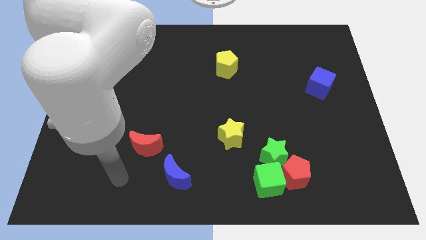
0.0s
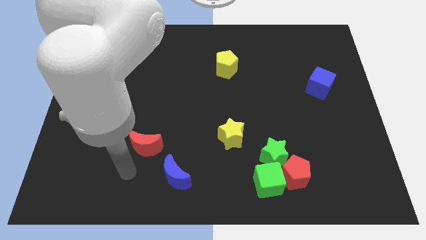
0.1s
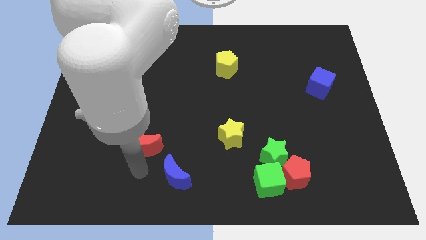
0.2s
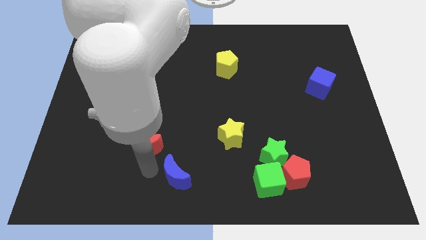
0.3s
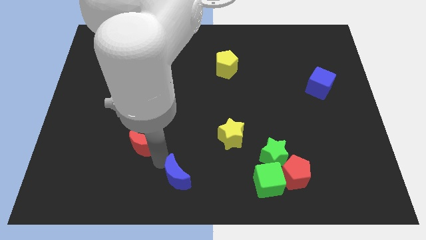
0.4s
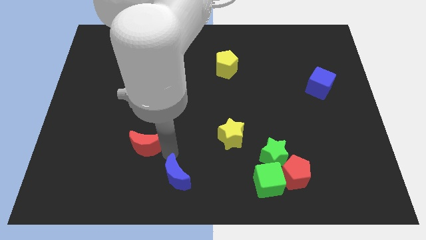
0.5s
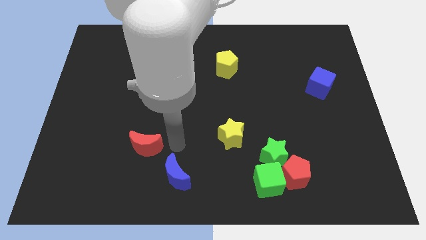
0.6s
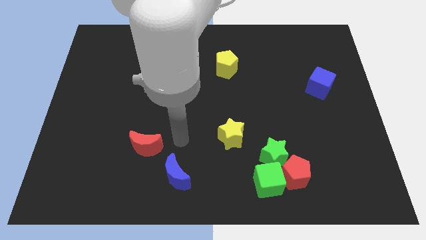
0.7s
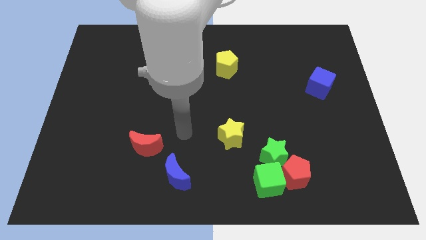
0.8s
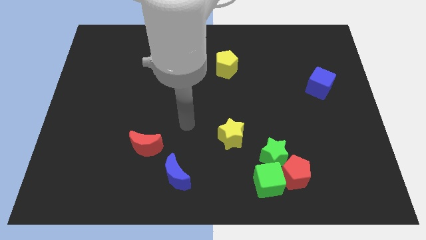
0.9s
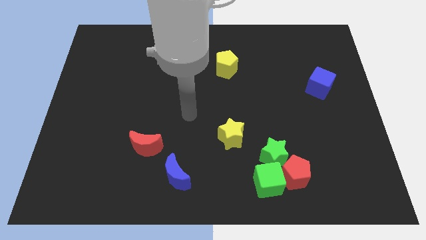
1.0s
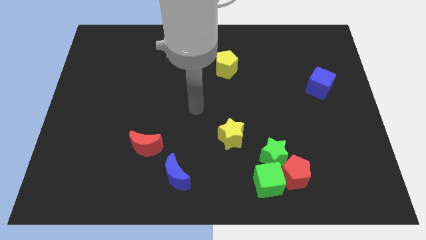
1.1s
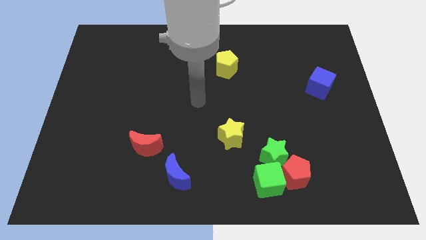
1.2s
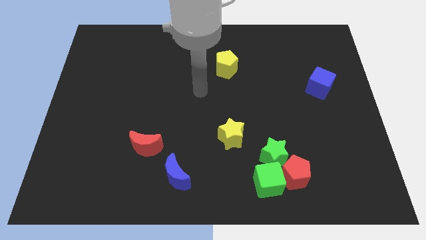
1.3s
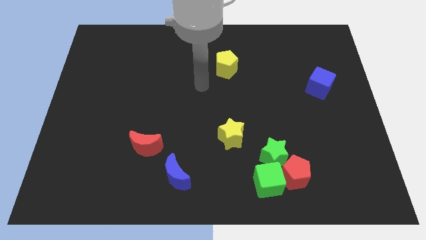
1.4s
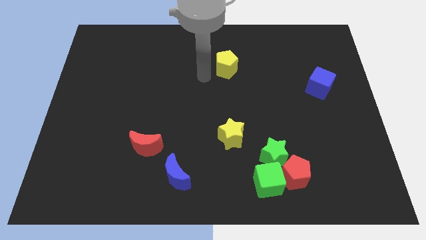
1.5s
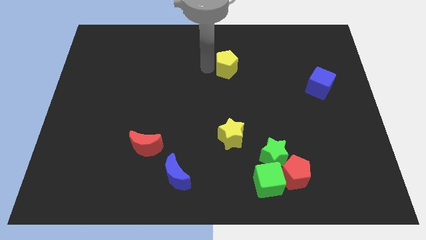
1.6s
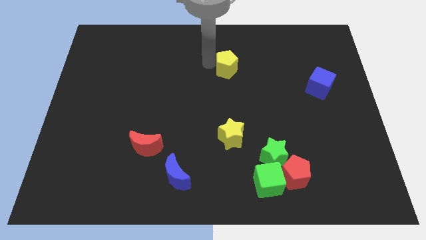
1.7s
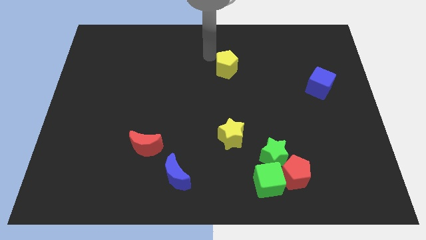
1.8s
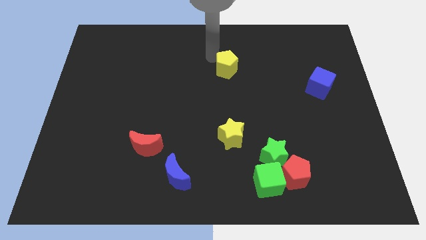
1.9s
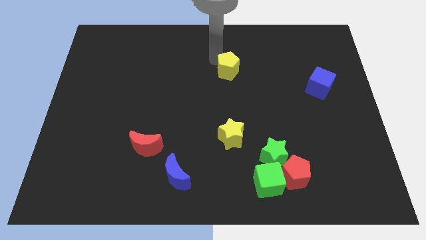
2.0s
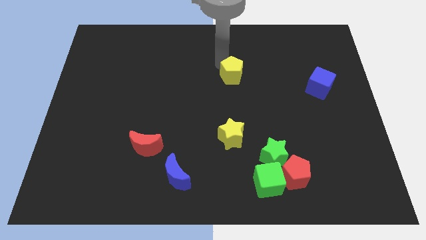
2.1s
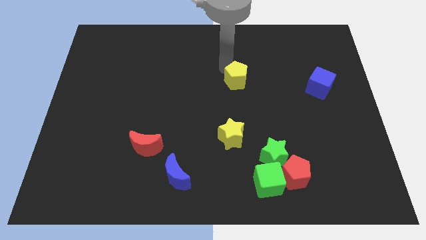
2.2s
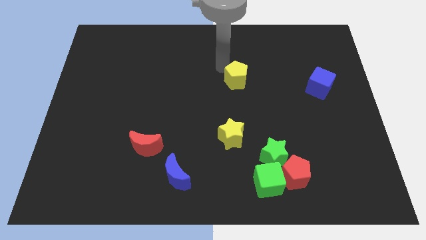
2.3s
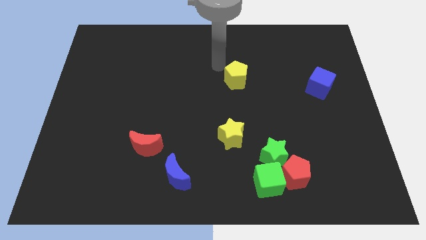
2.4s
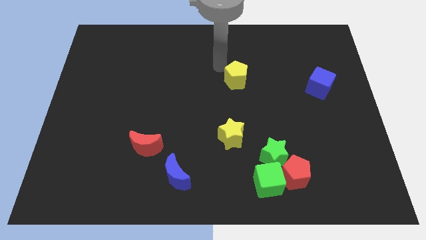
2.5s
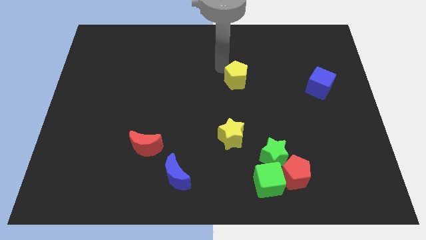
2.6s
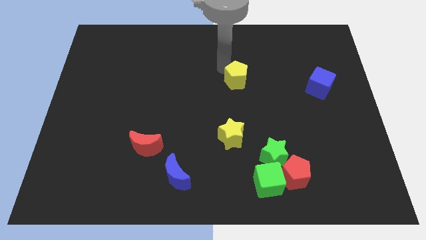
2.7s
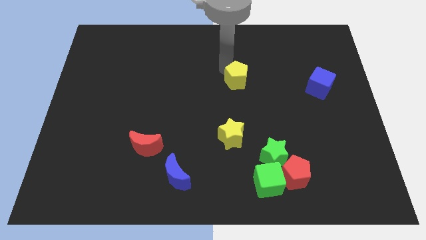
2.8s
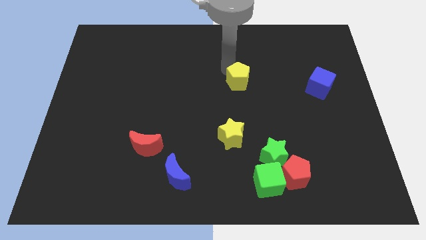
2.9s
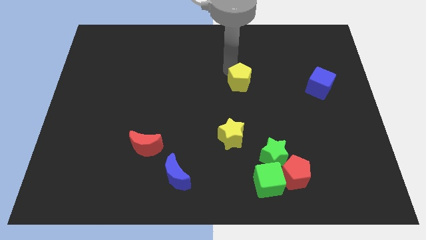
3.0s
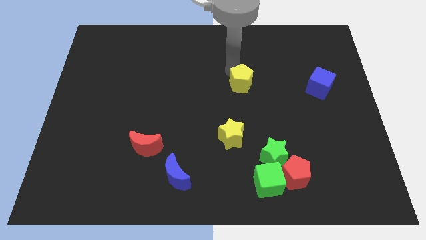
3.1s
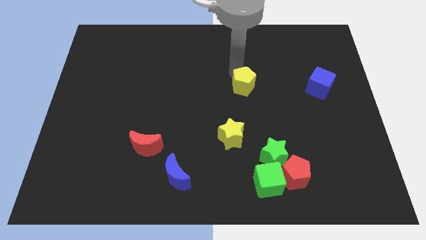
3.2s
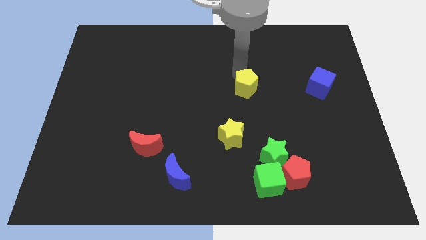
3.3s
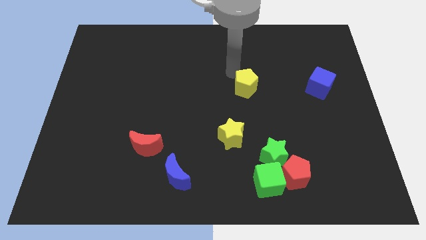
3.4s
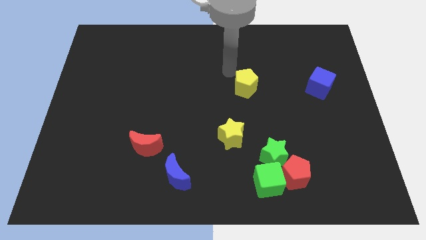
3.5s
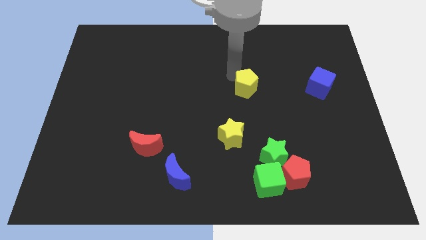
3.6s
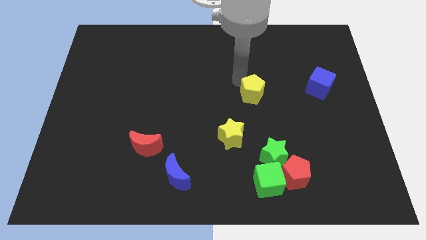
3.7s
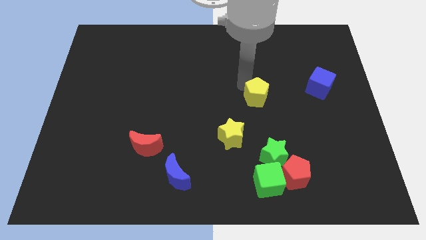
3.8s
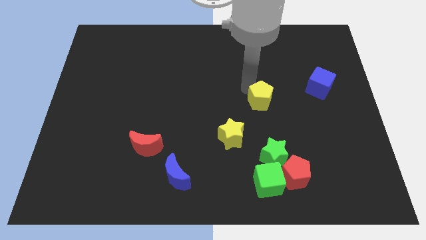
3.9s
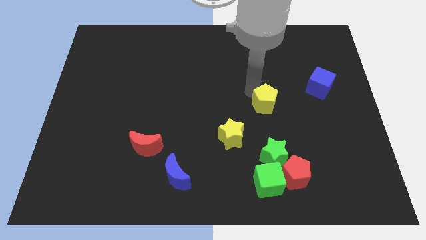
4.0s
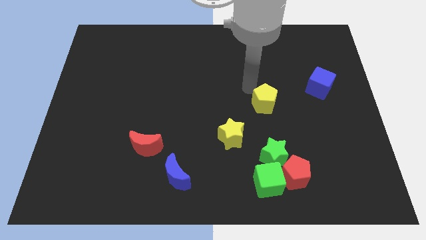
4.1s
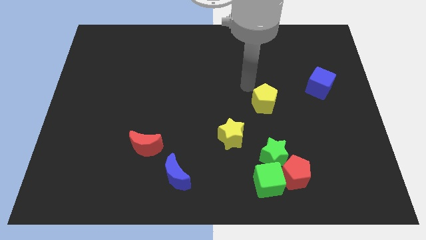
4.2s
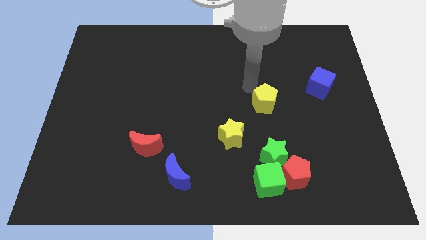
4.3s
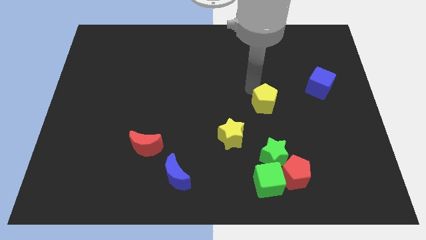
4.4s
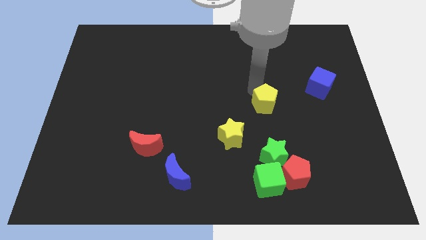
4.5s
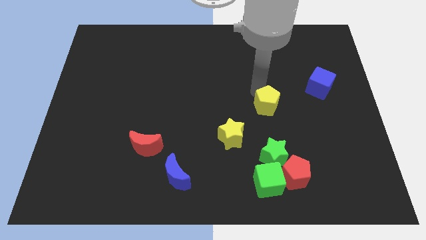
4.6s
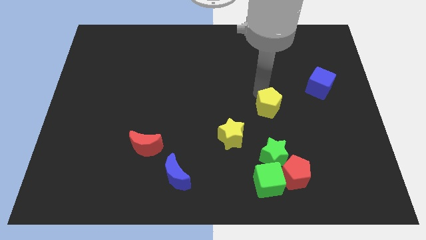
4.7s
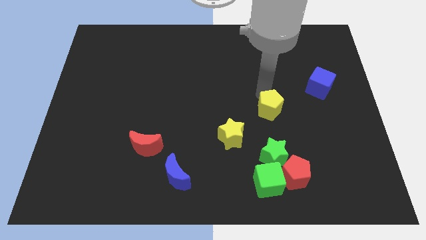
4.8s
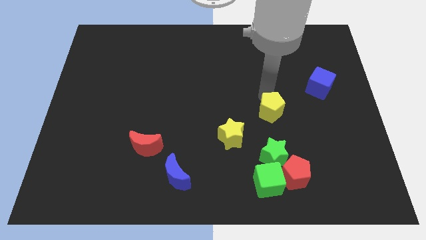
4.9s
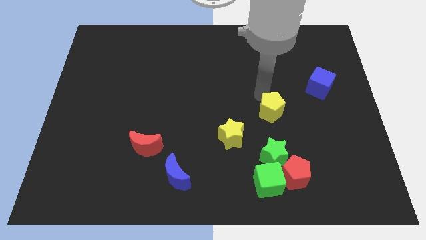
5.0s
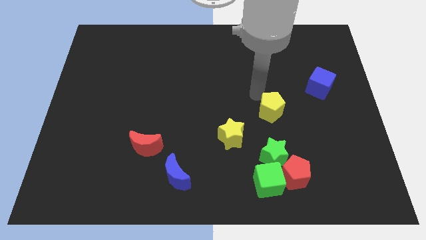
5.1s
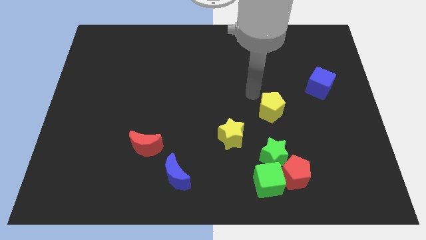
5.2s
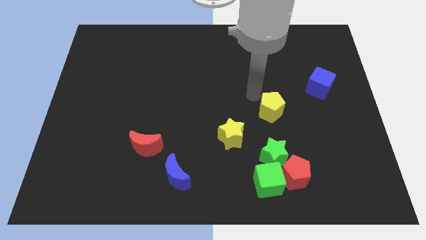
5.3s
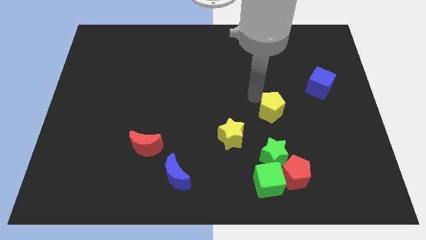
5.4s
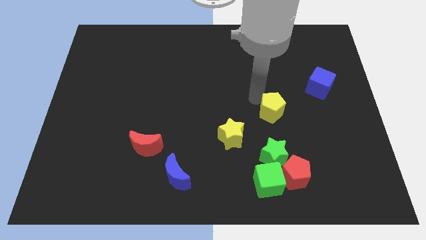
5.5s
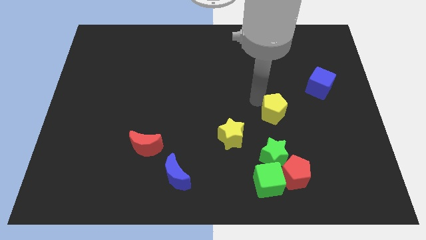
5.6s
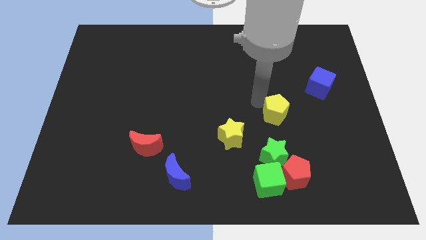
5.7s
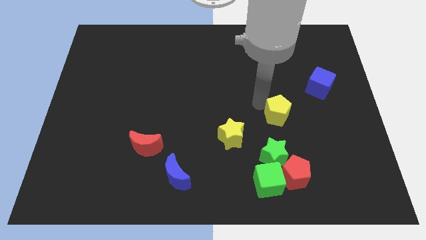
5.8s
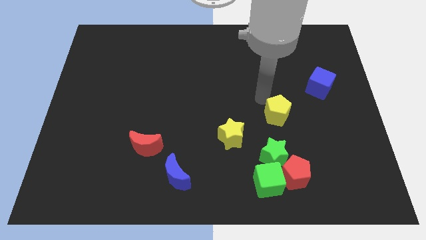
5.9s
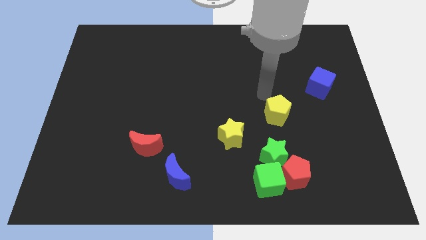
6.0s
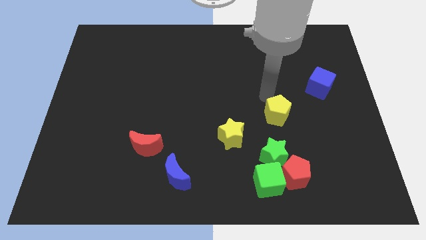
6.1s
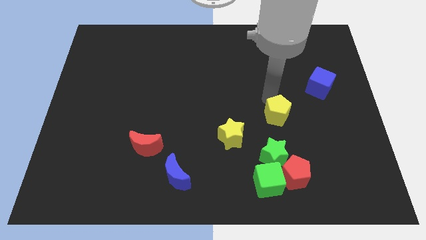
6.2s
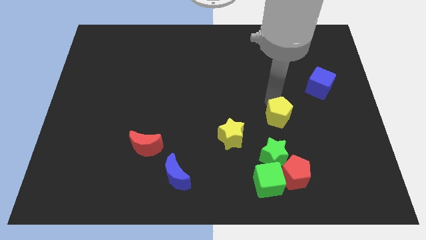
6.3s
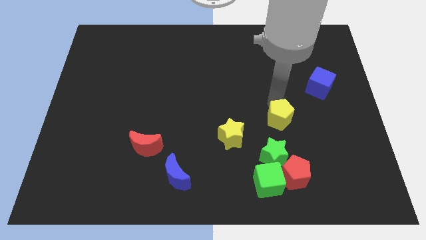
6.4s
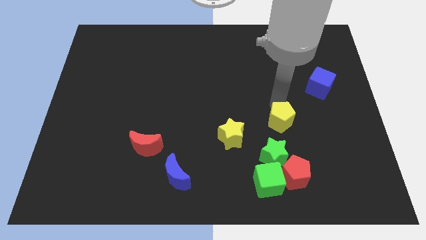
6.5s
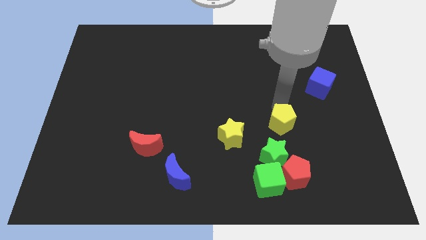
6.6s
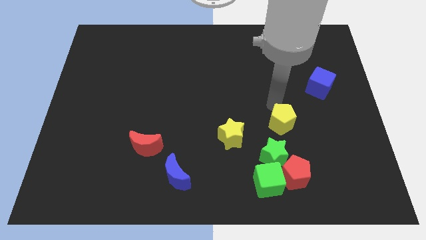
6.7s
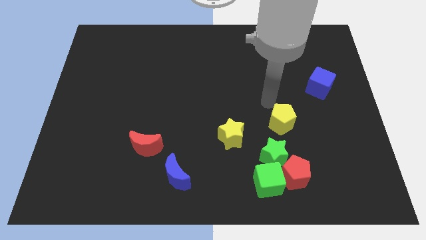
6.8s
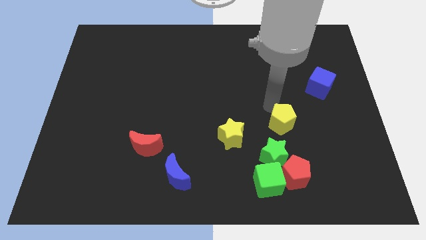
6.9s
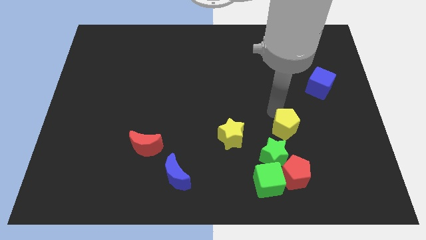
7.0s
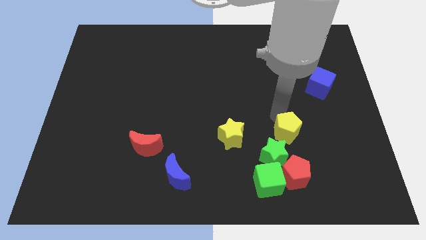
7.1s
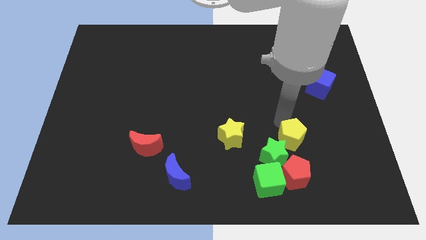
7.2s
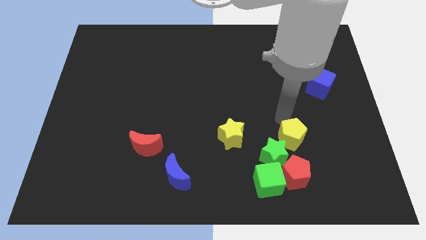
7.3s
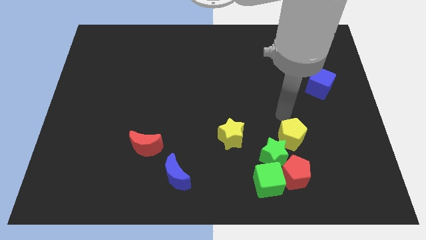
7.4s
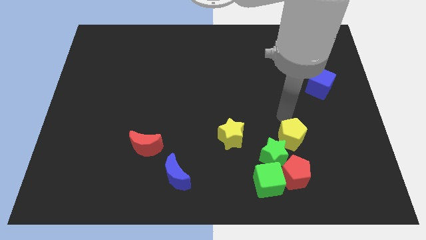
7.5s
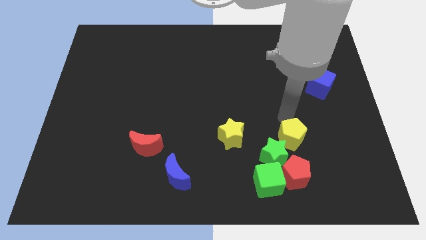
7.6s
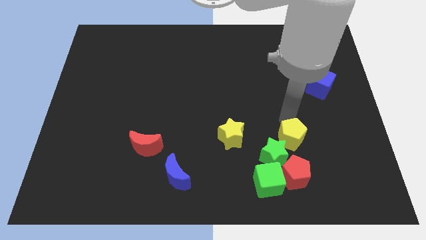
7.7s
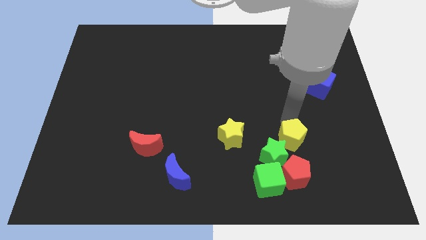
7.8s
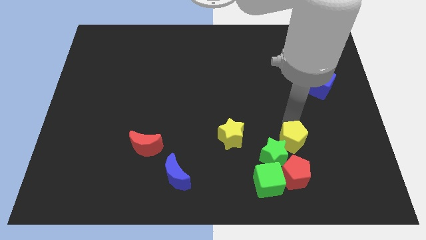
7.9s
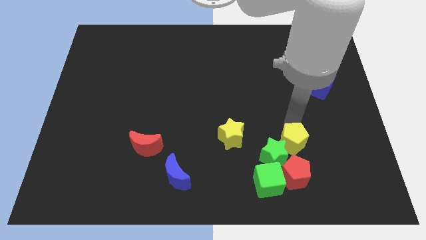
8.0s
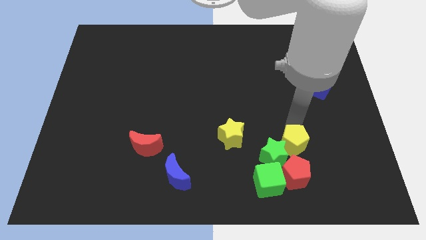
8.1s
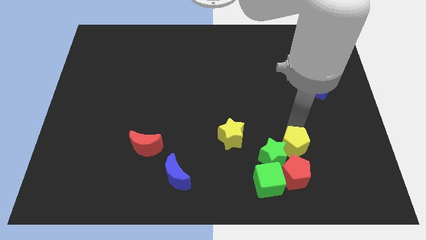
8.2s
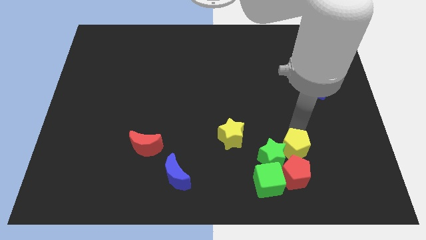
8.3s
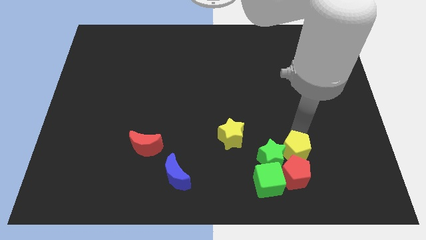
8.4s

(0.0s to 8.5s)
move the yellow pentagon towards the red pentagon
